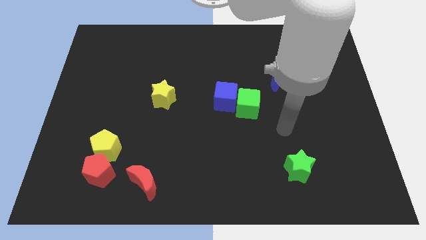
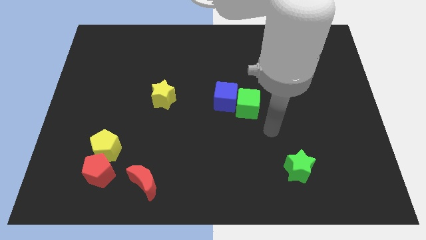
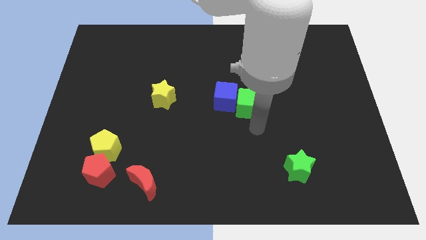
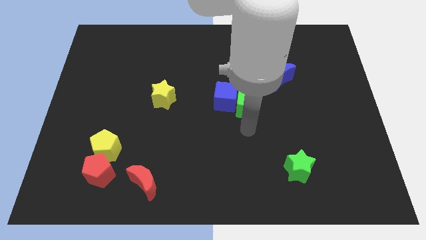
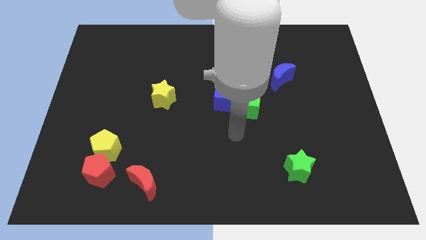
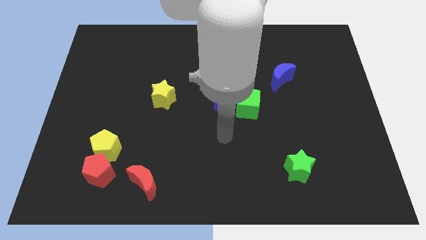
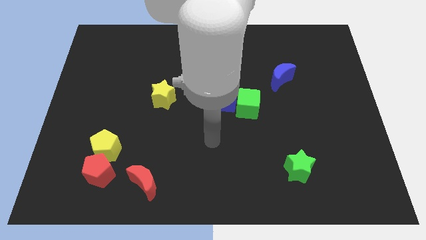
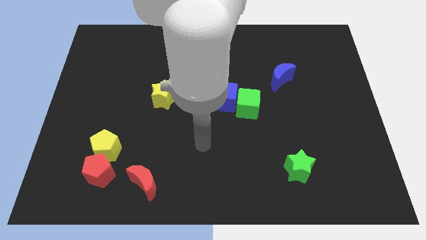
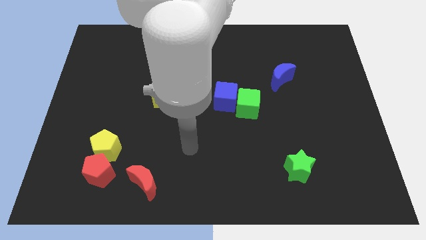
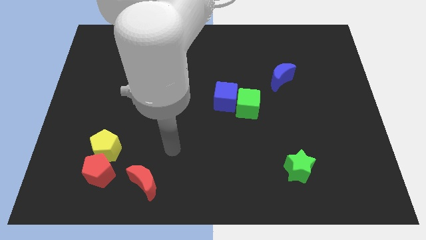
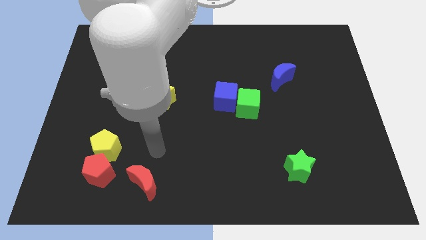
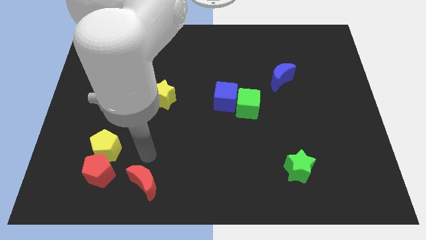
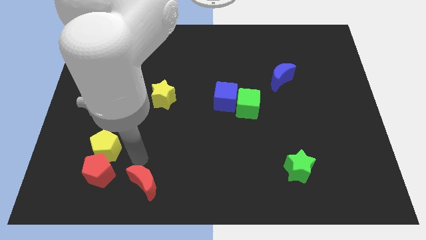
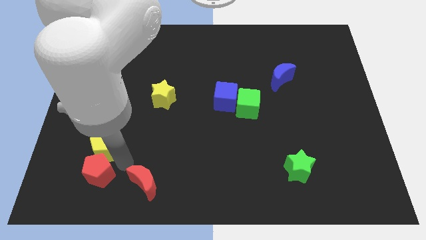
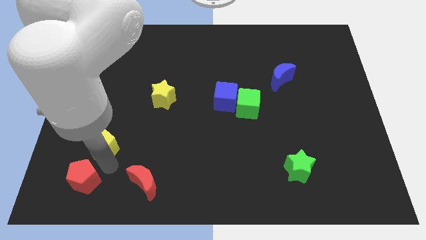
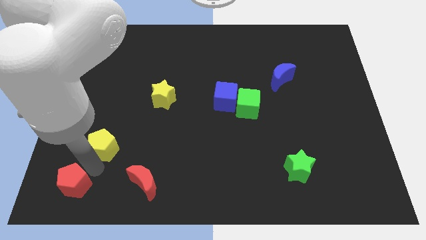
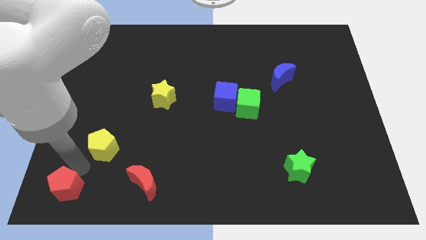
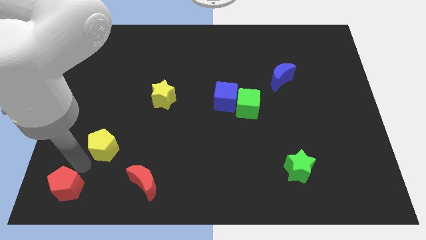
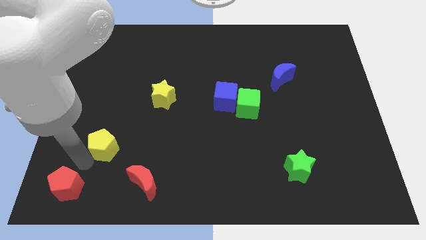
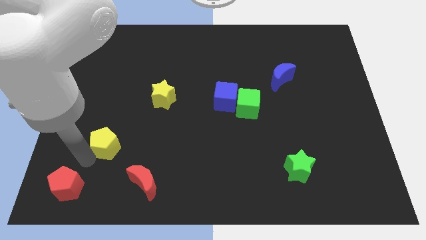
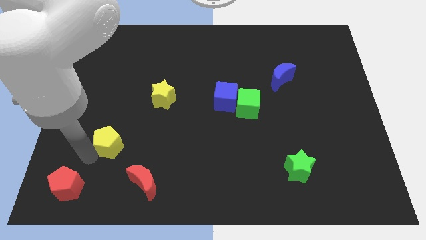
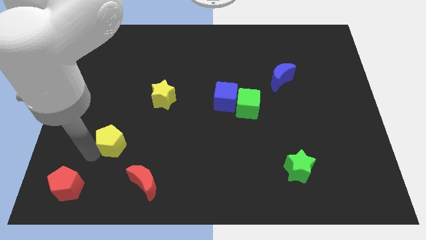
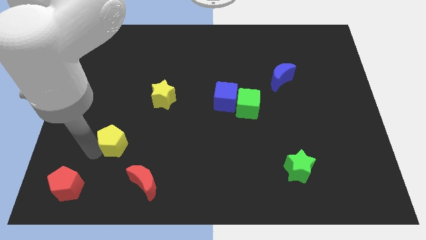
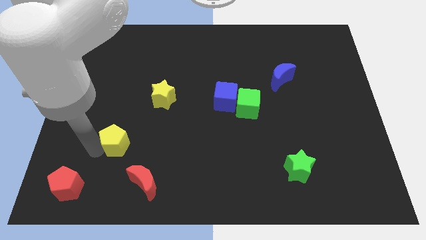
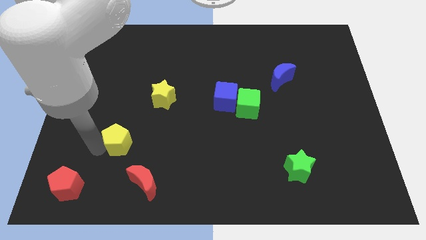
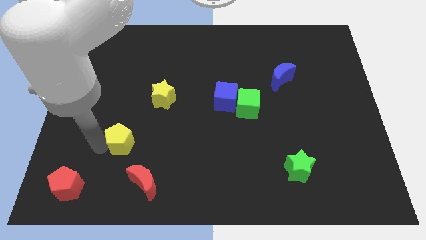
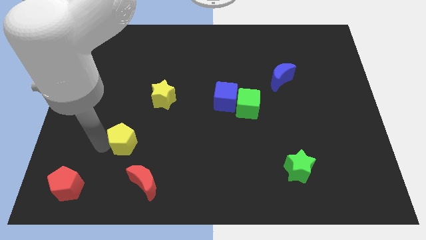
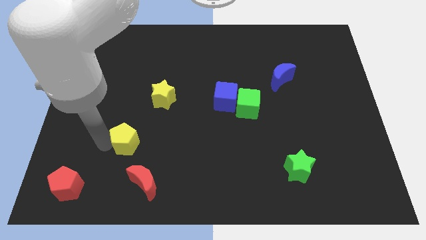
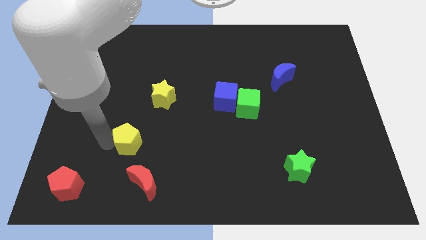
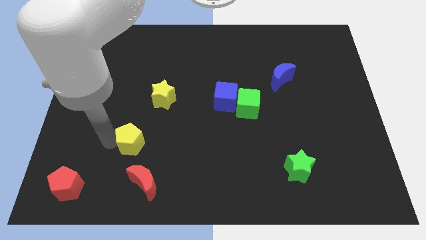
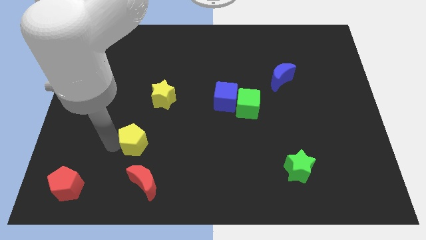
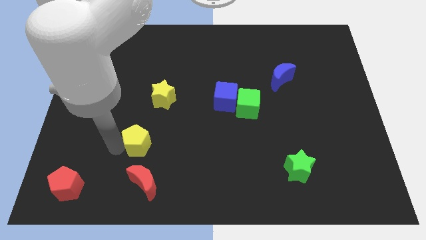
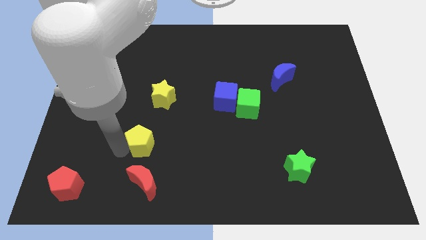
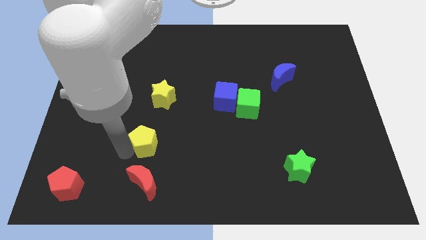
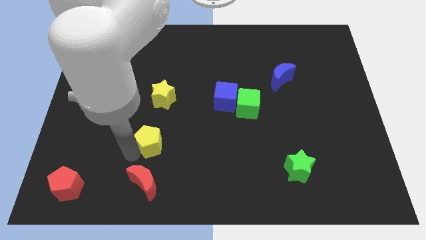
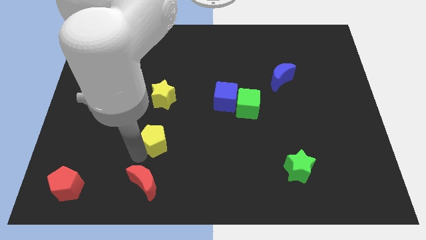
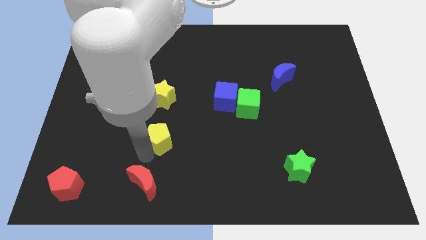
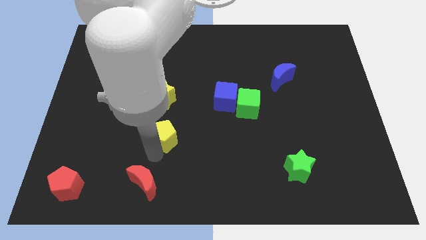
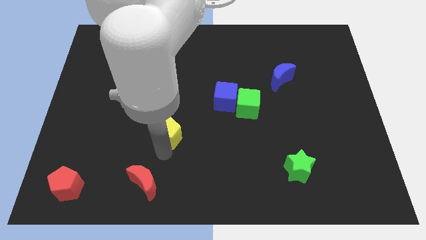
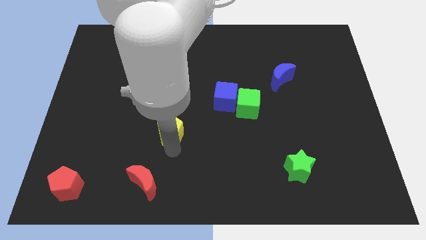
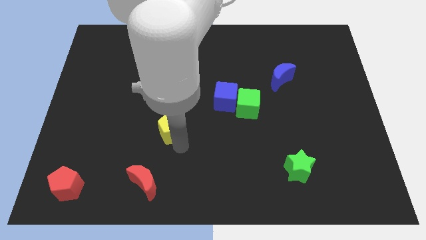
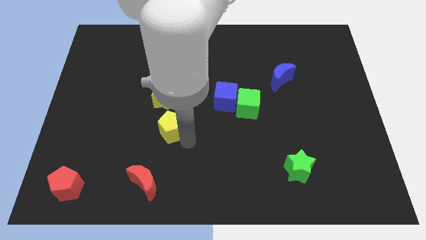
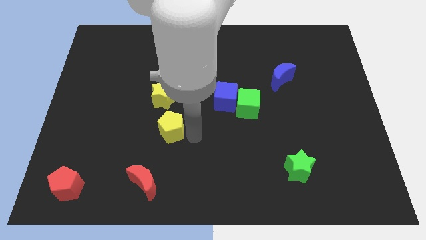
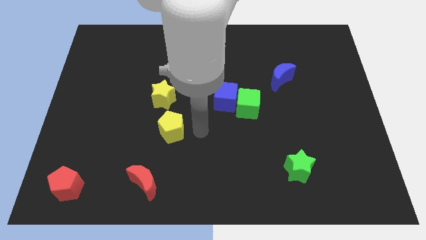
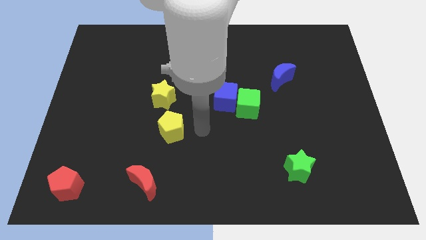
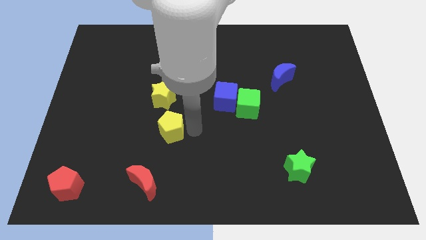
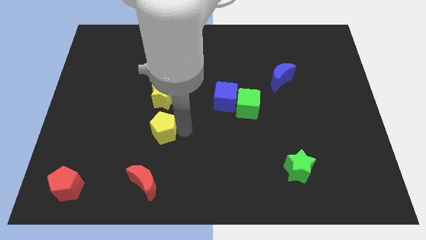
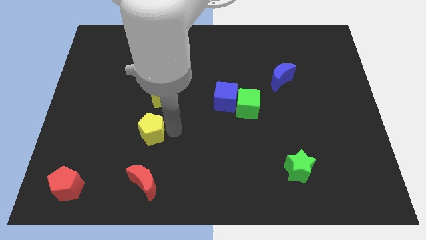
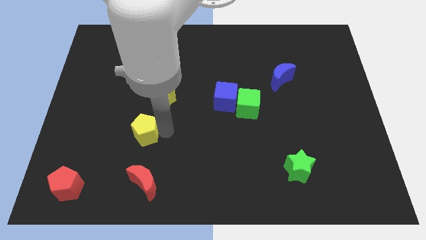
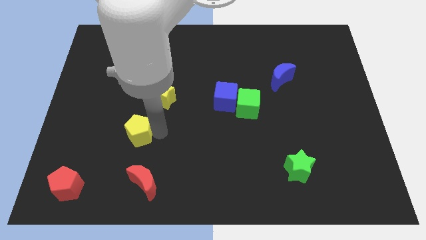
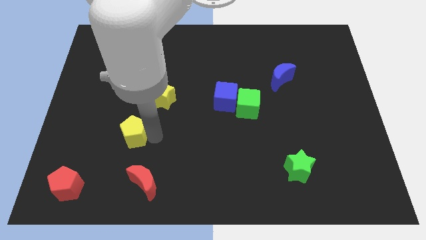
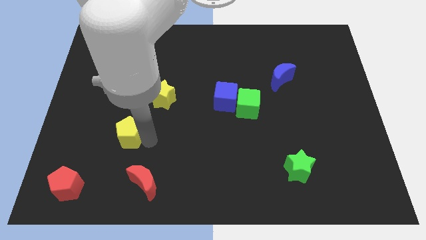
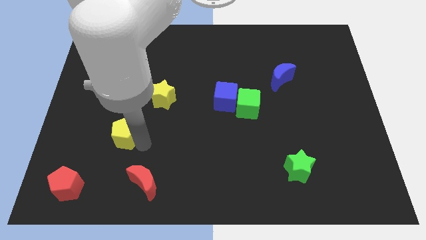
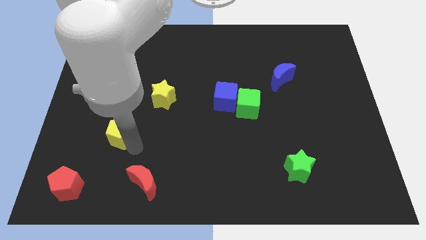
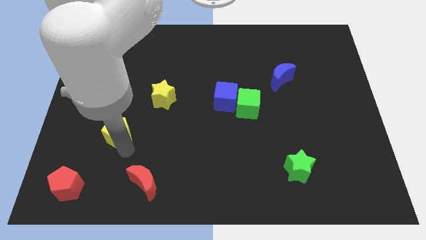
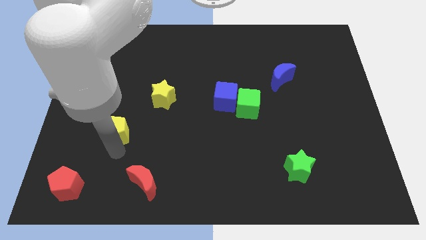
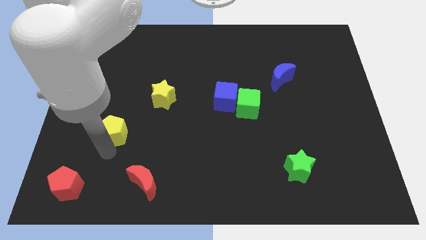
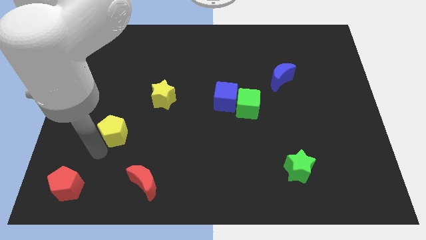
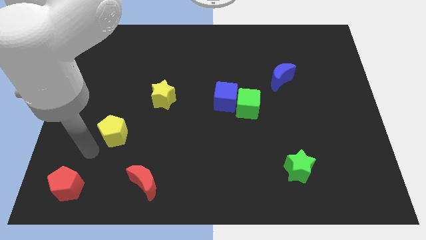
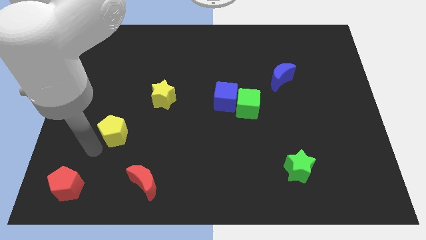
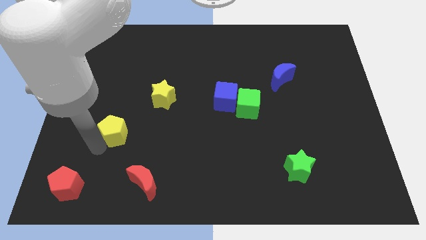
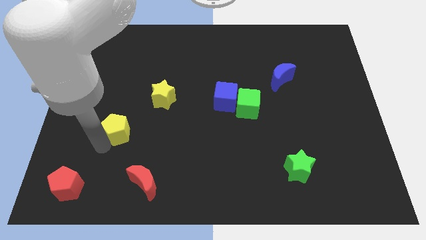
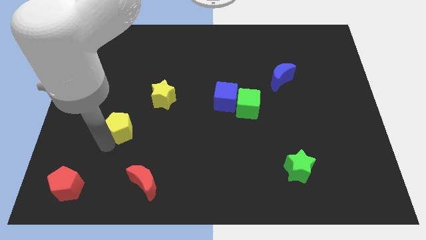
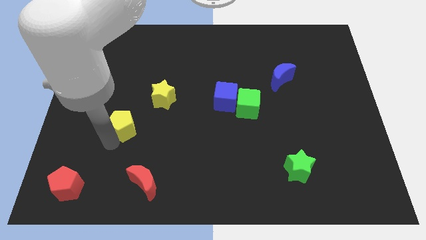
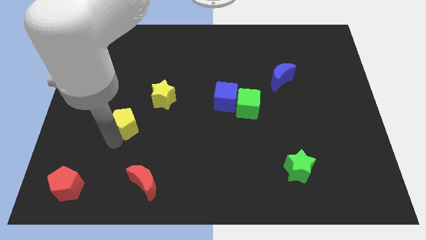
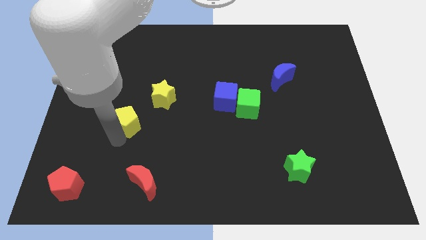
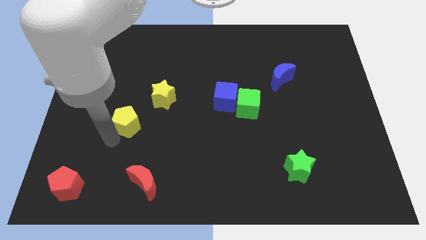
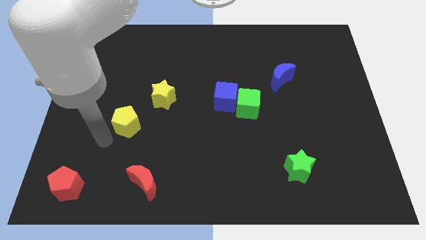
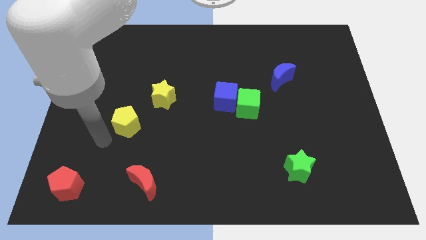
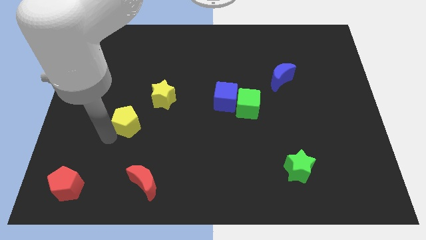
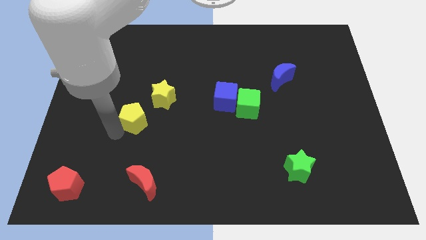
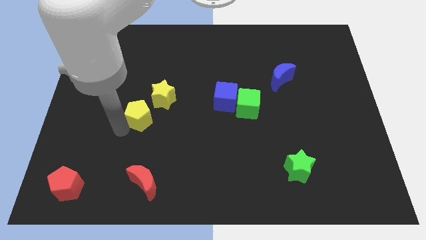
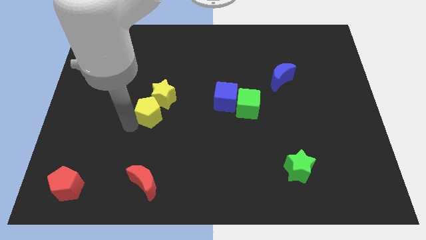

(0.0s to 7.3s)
put the yellow pentagon next to the yellow star
